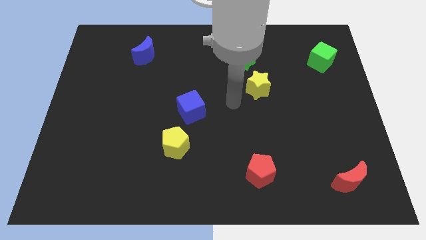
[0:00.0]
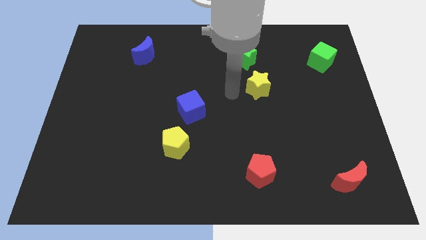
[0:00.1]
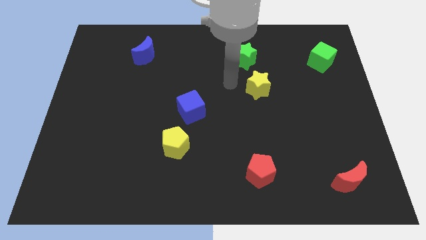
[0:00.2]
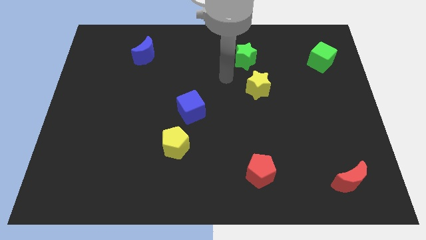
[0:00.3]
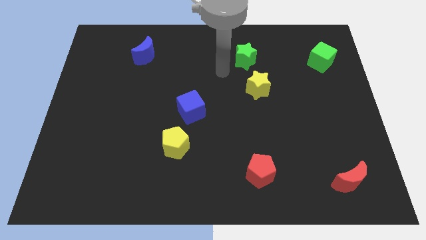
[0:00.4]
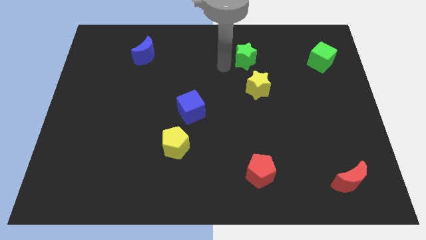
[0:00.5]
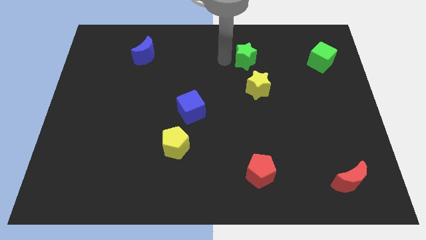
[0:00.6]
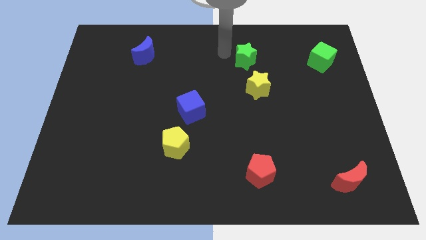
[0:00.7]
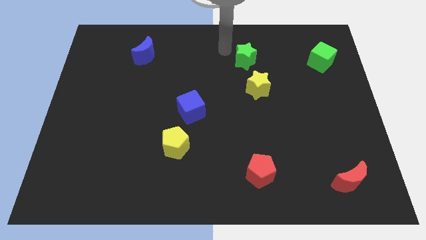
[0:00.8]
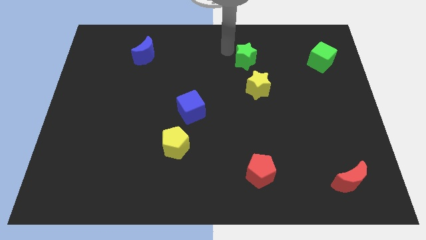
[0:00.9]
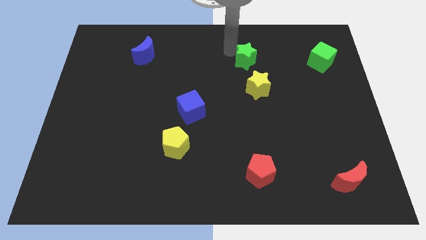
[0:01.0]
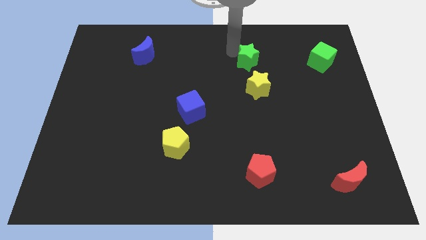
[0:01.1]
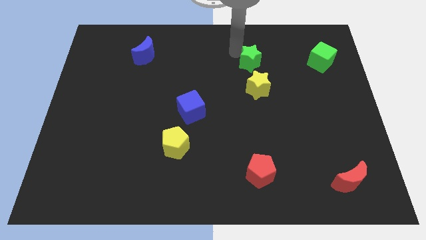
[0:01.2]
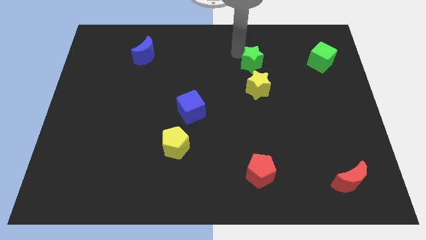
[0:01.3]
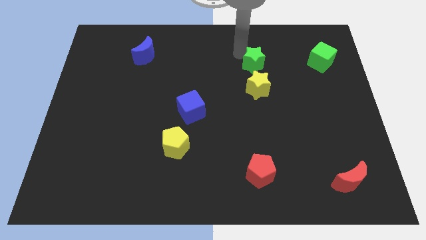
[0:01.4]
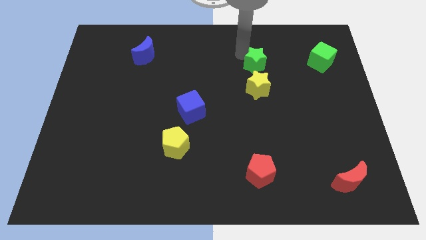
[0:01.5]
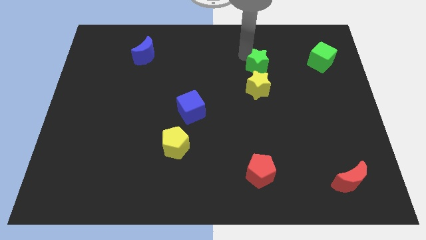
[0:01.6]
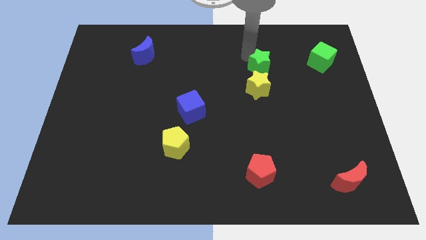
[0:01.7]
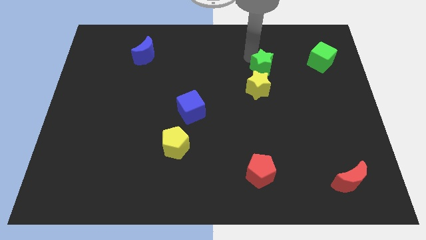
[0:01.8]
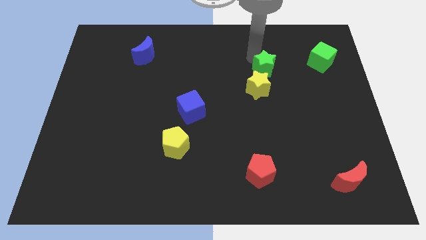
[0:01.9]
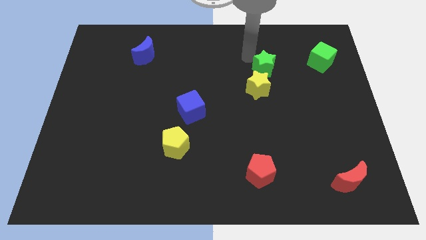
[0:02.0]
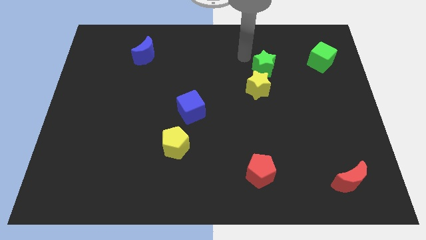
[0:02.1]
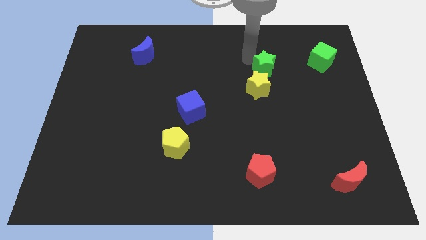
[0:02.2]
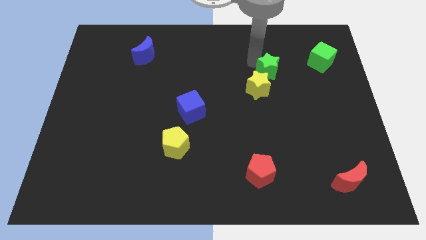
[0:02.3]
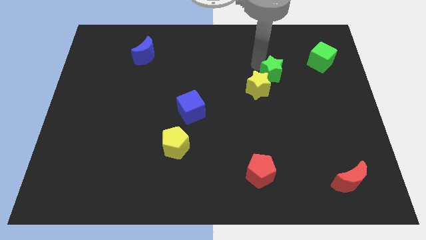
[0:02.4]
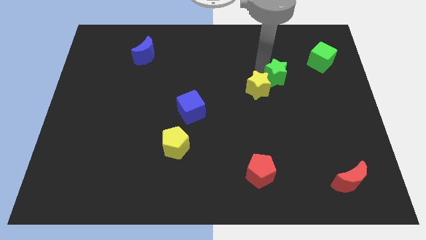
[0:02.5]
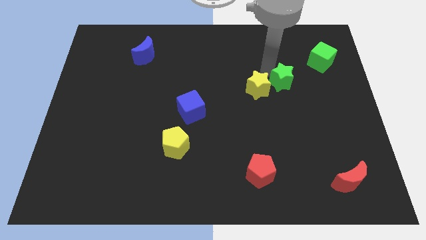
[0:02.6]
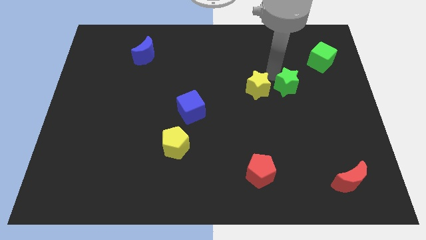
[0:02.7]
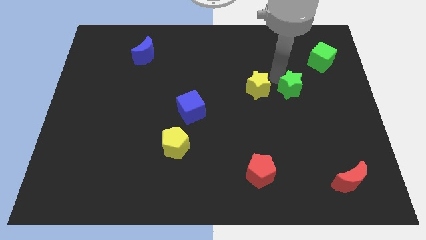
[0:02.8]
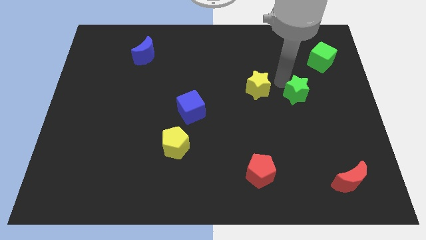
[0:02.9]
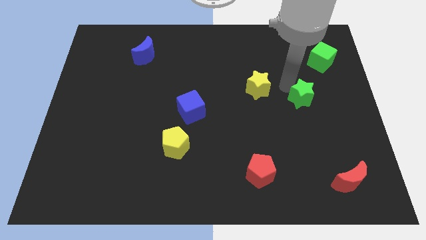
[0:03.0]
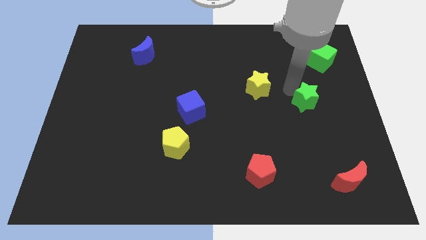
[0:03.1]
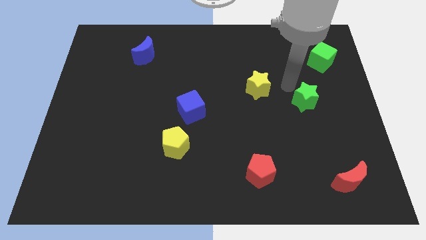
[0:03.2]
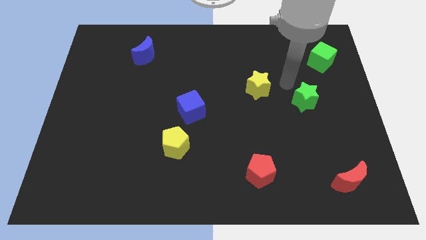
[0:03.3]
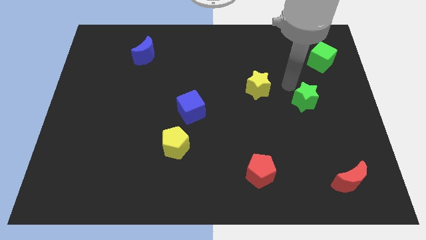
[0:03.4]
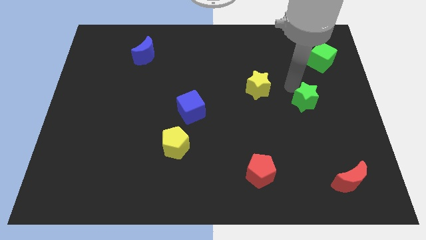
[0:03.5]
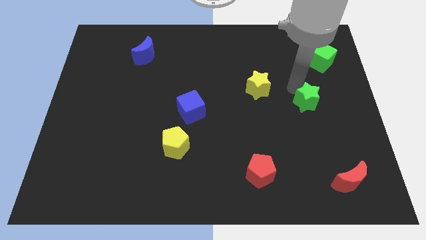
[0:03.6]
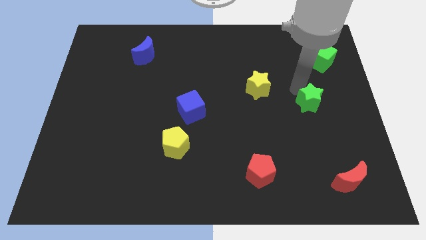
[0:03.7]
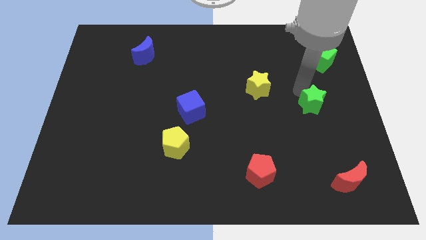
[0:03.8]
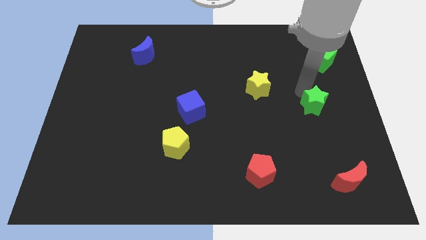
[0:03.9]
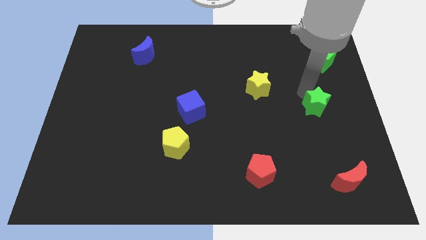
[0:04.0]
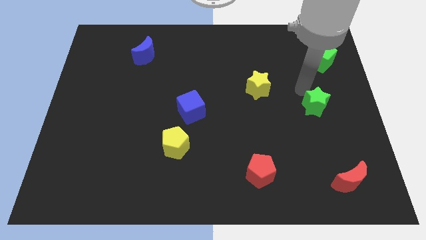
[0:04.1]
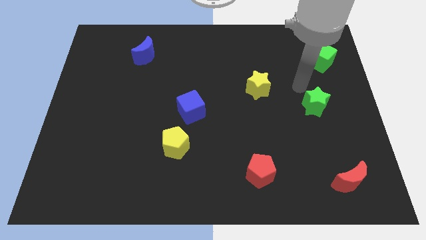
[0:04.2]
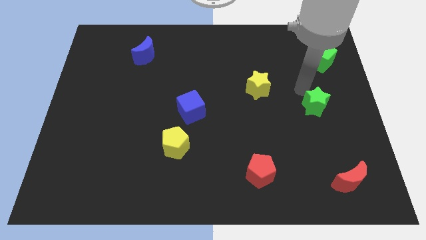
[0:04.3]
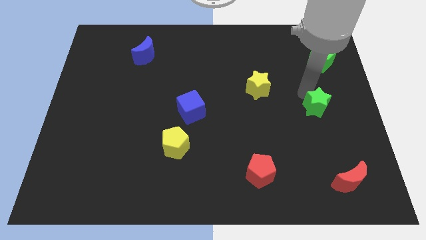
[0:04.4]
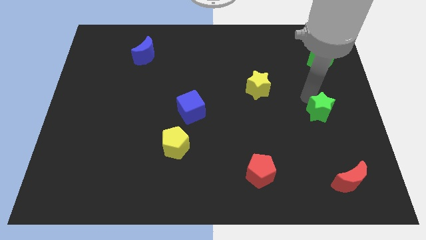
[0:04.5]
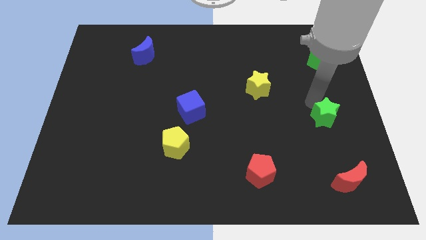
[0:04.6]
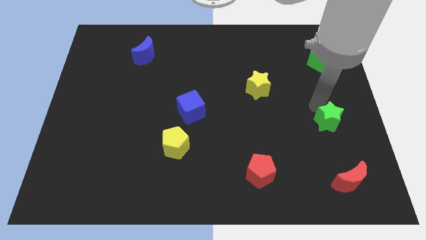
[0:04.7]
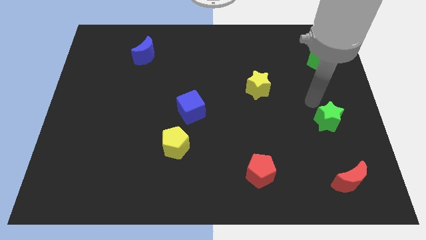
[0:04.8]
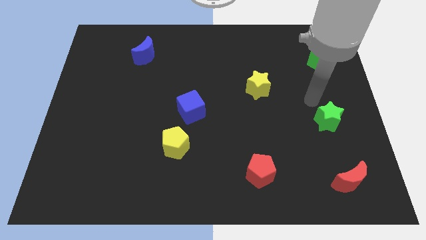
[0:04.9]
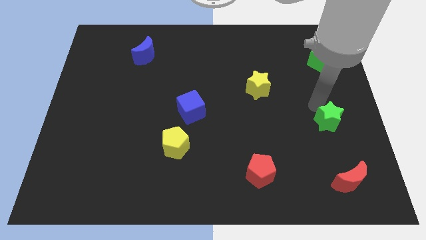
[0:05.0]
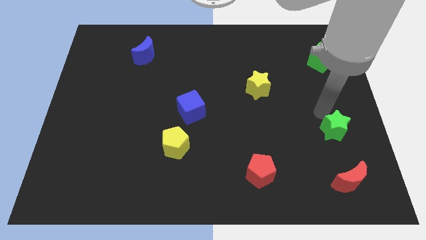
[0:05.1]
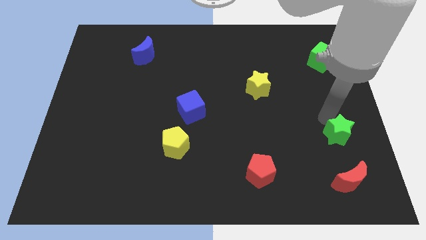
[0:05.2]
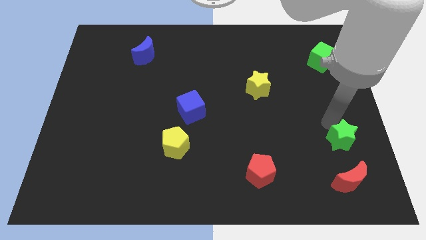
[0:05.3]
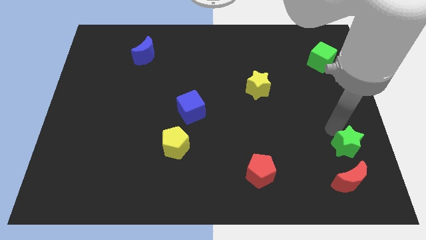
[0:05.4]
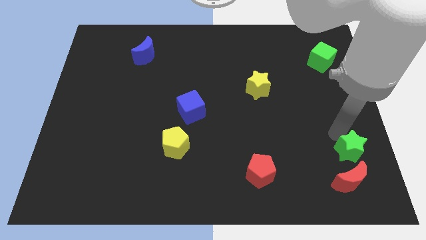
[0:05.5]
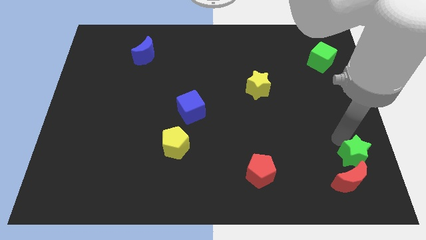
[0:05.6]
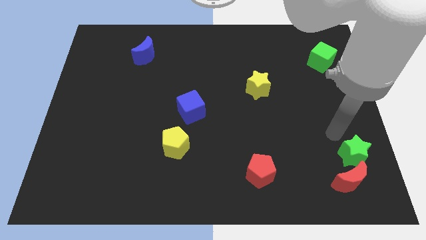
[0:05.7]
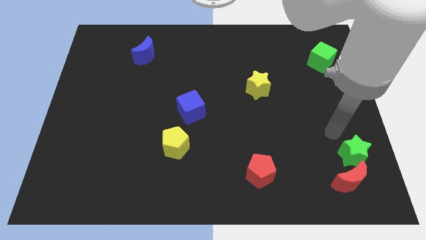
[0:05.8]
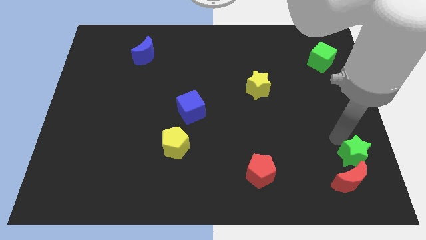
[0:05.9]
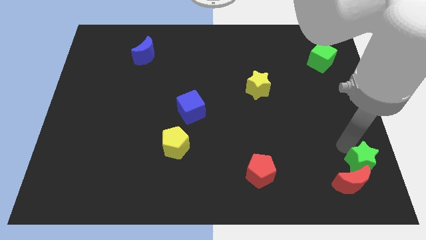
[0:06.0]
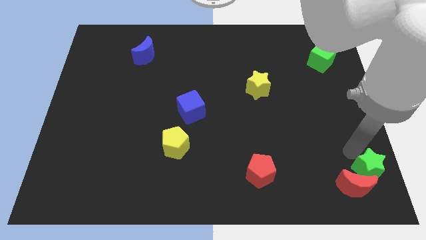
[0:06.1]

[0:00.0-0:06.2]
push the green star to the lower right corner
